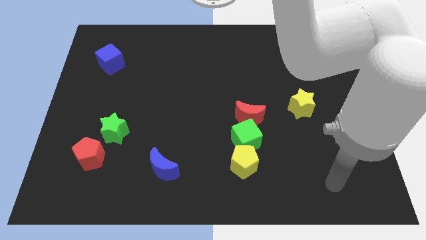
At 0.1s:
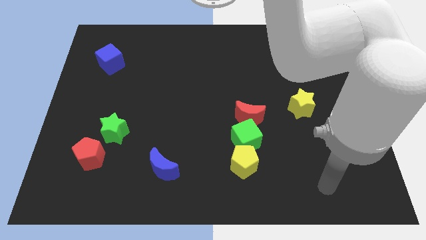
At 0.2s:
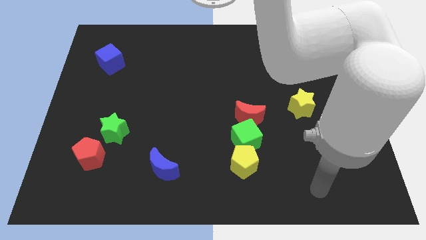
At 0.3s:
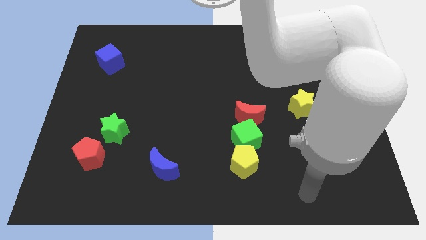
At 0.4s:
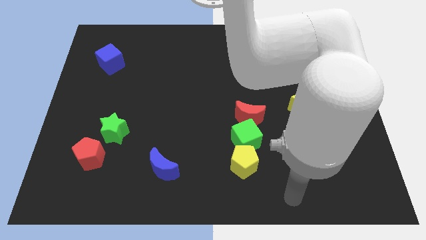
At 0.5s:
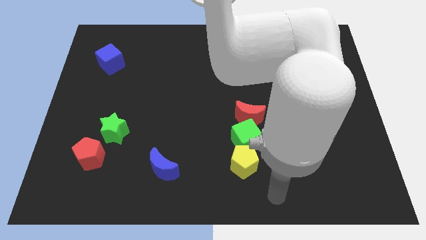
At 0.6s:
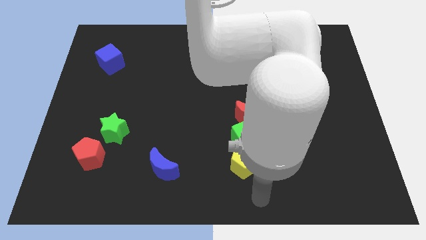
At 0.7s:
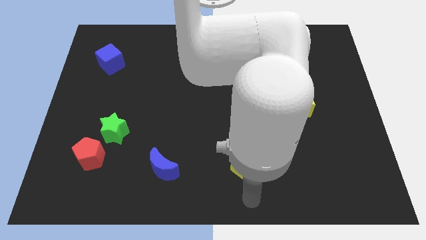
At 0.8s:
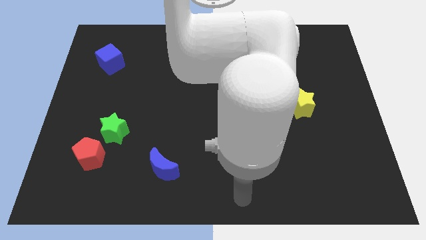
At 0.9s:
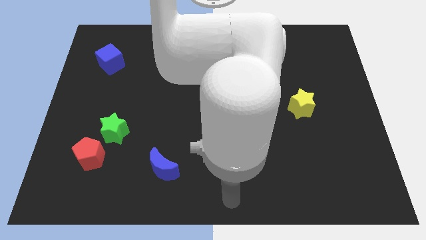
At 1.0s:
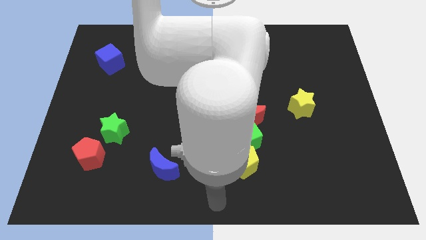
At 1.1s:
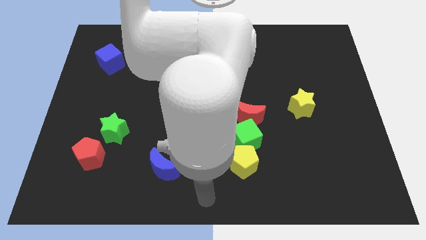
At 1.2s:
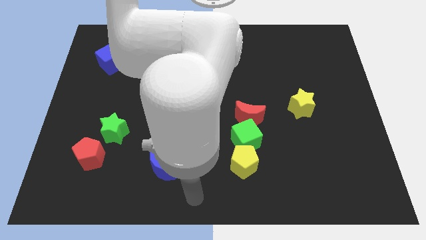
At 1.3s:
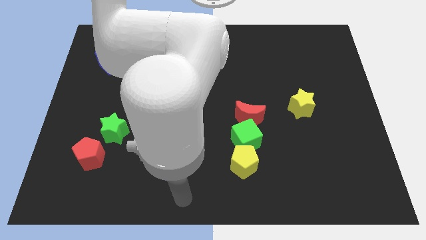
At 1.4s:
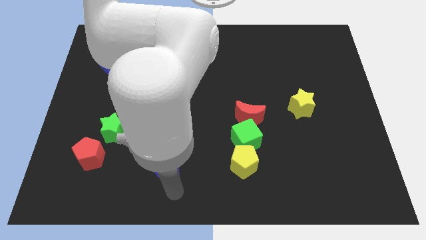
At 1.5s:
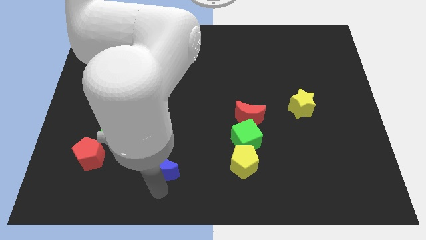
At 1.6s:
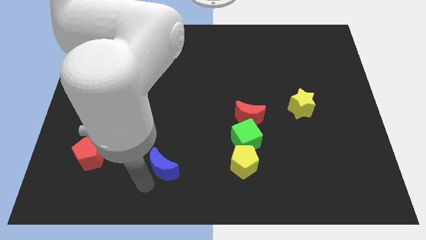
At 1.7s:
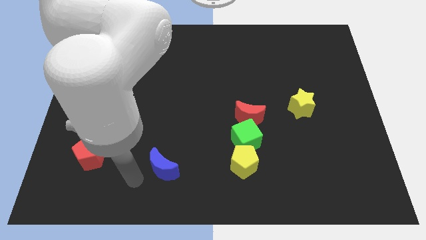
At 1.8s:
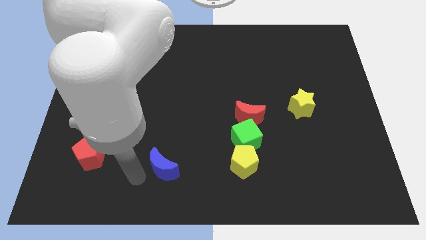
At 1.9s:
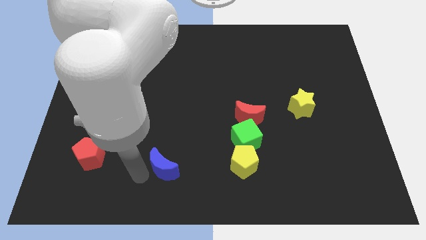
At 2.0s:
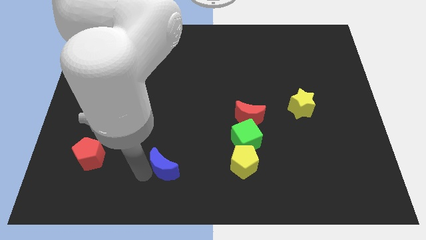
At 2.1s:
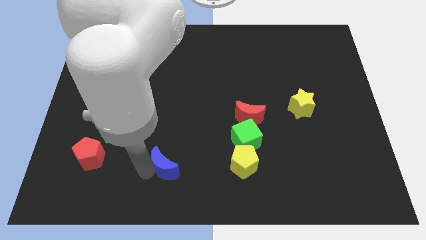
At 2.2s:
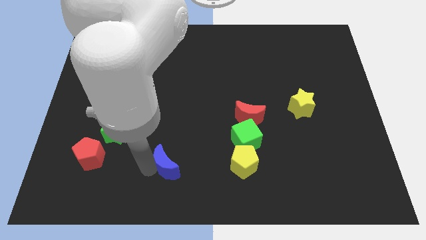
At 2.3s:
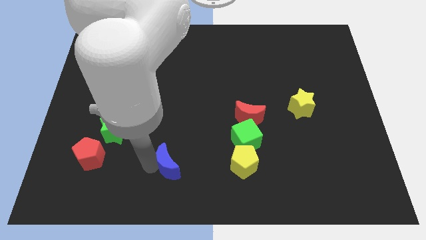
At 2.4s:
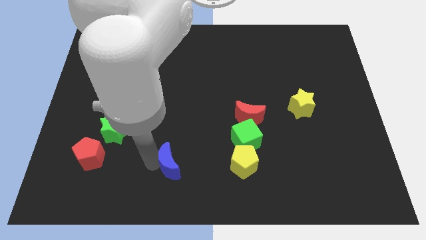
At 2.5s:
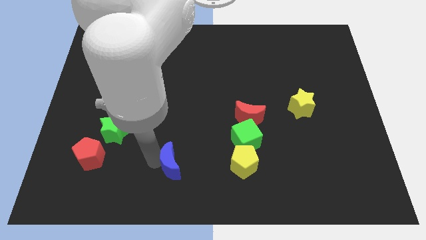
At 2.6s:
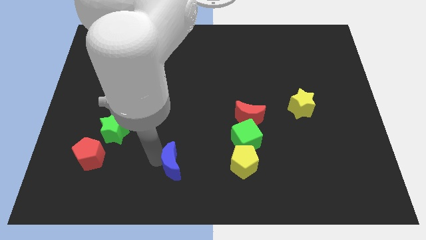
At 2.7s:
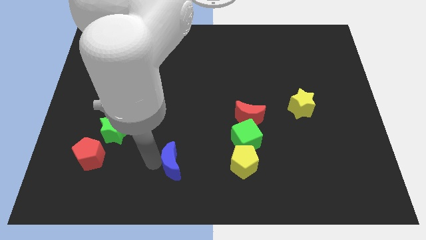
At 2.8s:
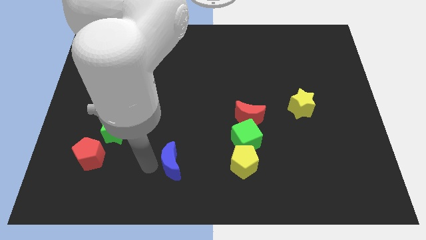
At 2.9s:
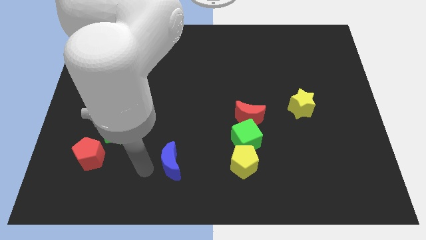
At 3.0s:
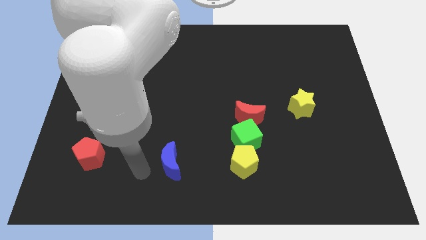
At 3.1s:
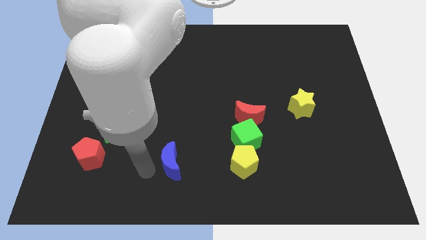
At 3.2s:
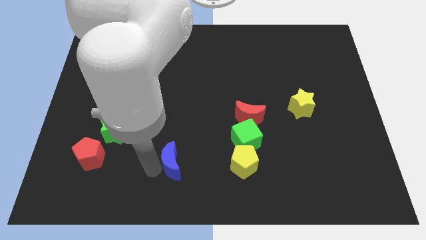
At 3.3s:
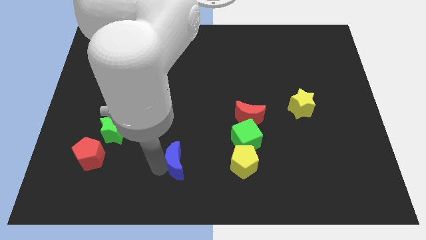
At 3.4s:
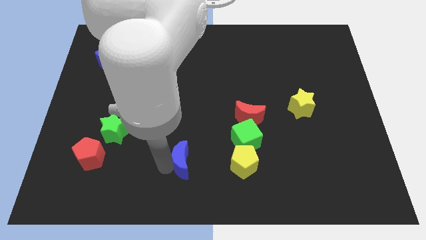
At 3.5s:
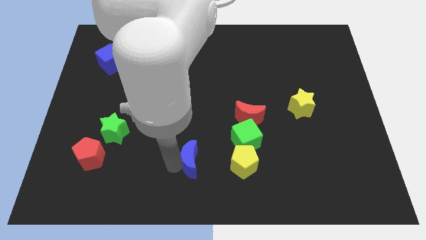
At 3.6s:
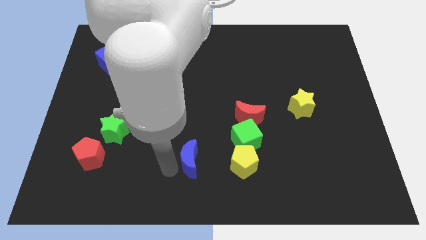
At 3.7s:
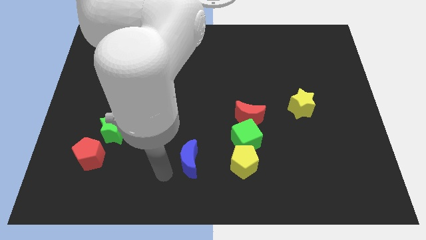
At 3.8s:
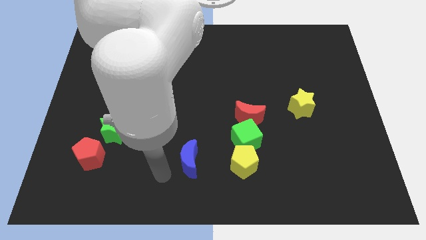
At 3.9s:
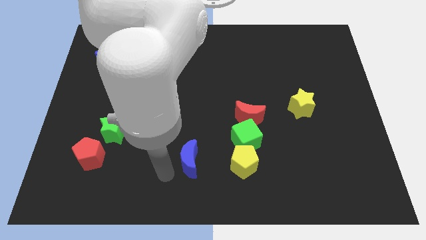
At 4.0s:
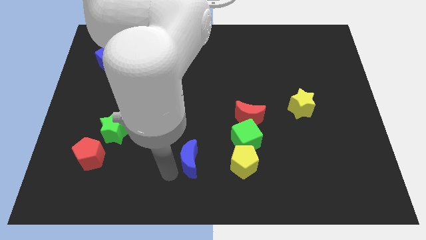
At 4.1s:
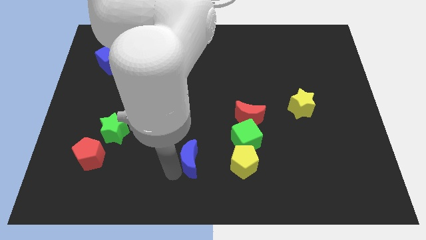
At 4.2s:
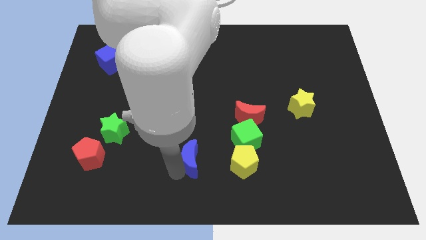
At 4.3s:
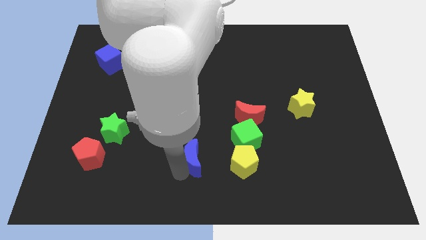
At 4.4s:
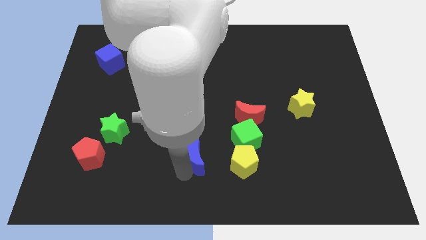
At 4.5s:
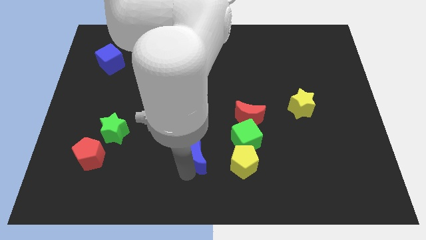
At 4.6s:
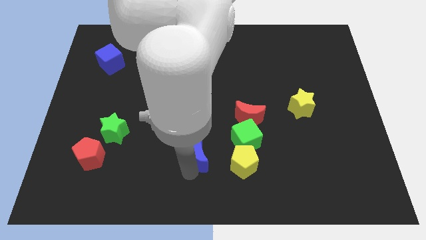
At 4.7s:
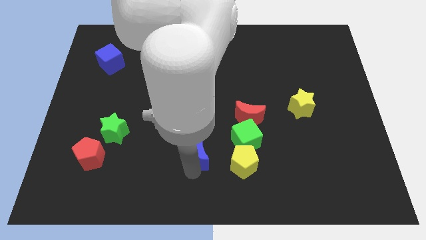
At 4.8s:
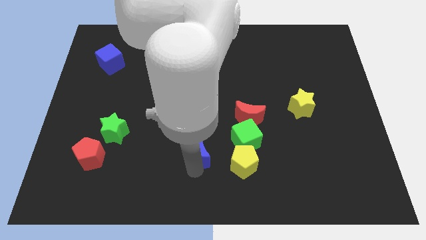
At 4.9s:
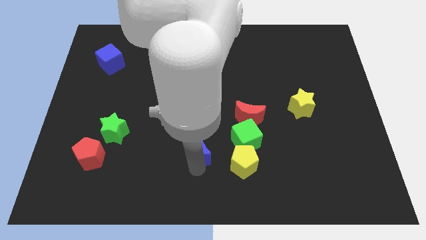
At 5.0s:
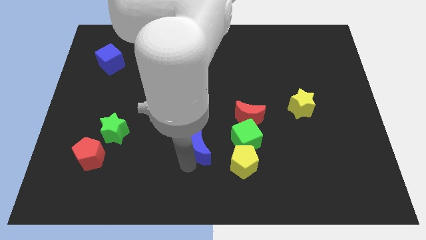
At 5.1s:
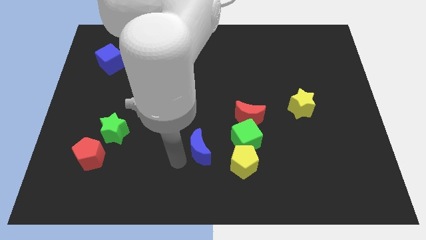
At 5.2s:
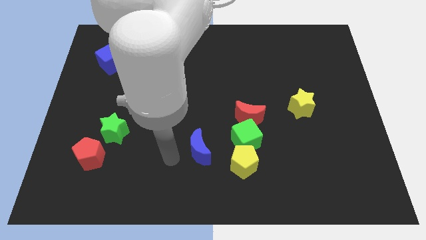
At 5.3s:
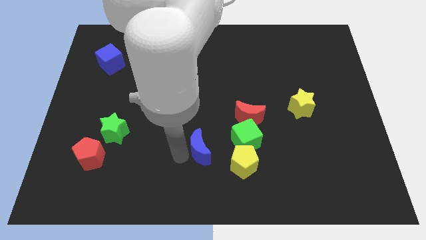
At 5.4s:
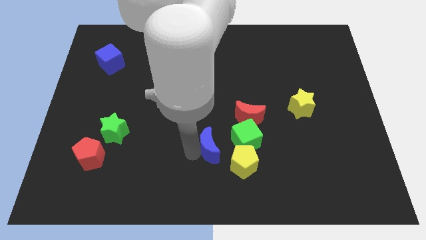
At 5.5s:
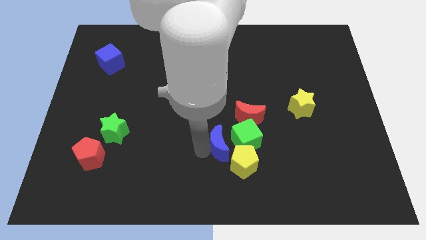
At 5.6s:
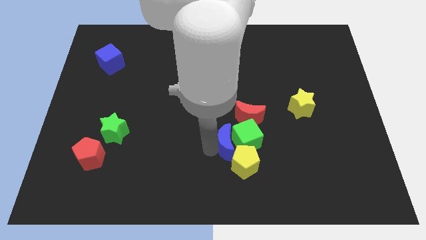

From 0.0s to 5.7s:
slide the blue moon close to the green cube

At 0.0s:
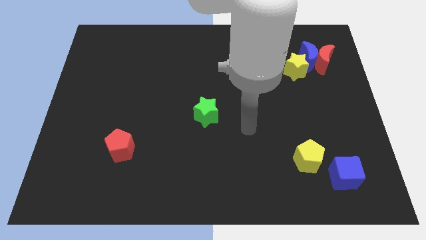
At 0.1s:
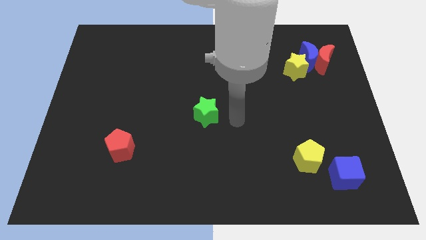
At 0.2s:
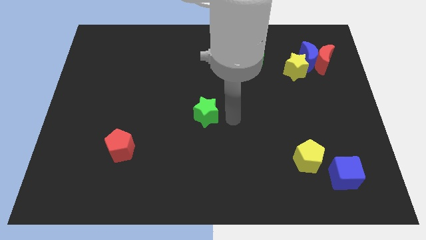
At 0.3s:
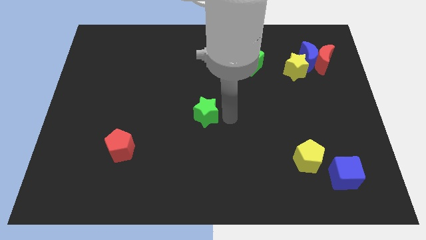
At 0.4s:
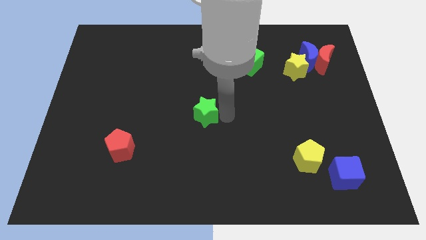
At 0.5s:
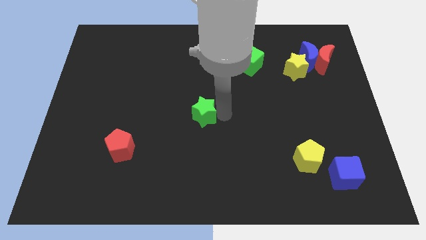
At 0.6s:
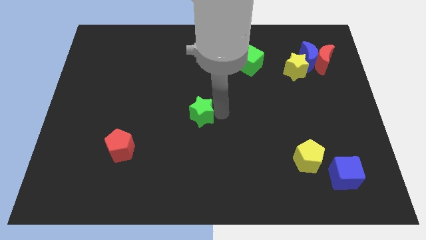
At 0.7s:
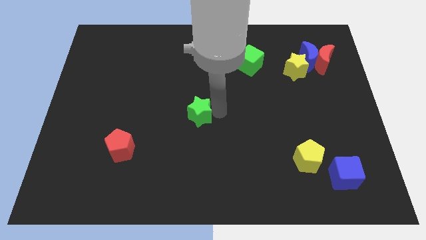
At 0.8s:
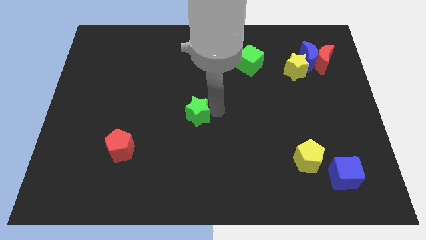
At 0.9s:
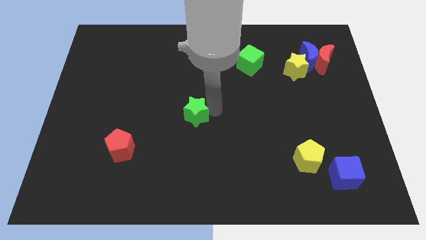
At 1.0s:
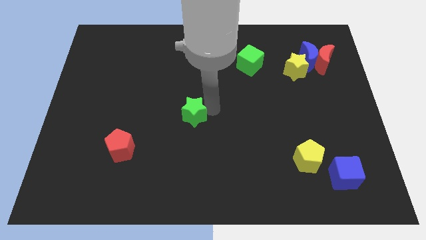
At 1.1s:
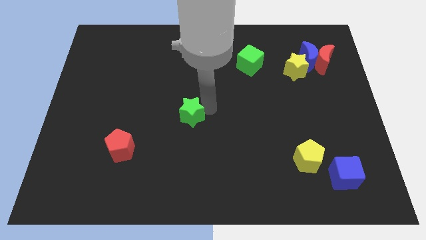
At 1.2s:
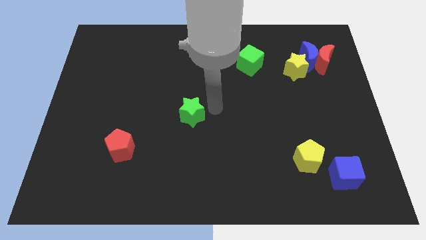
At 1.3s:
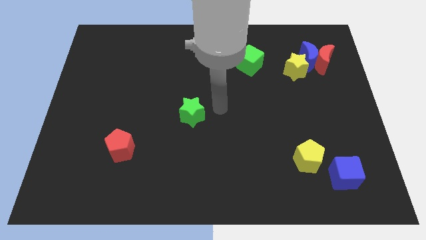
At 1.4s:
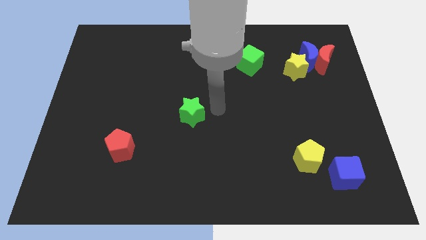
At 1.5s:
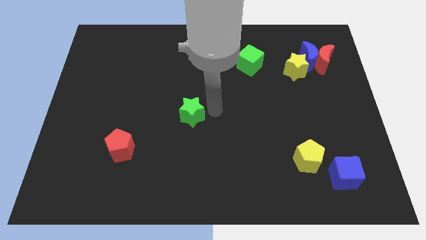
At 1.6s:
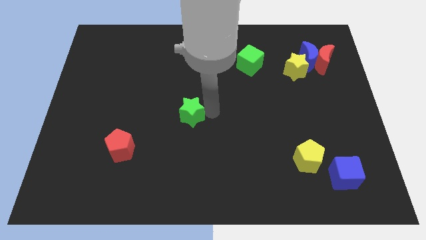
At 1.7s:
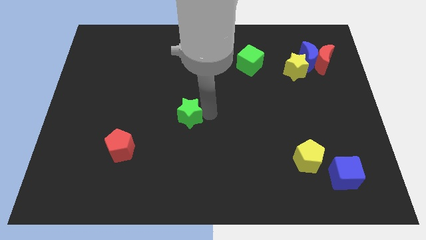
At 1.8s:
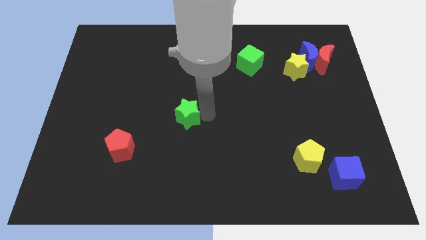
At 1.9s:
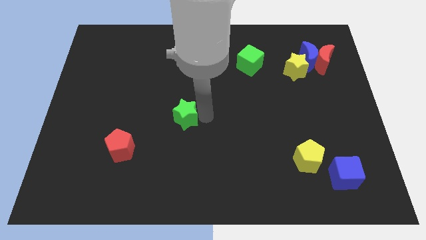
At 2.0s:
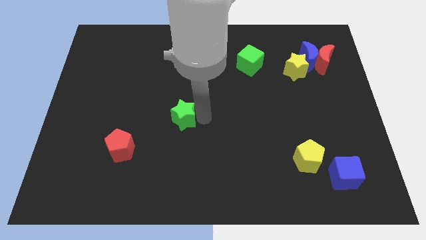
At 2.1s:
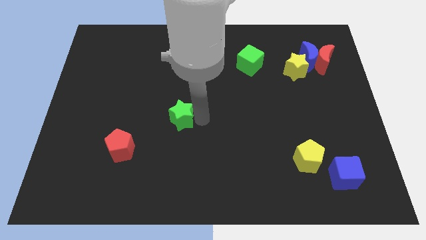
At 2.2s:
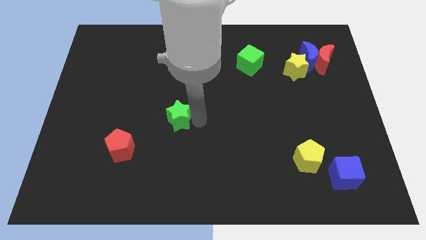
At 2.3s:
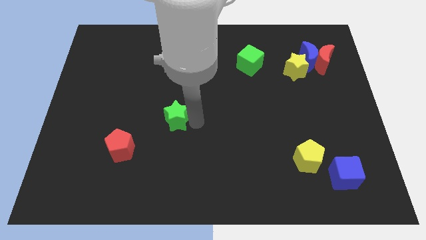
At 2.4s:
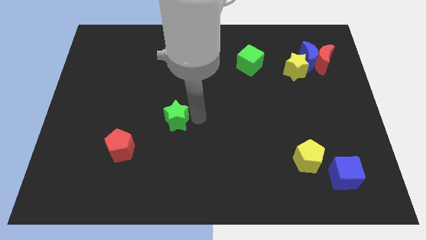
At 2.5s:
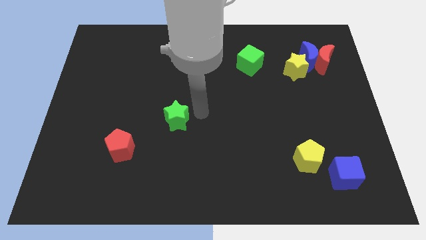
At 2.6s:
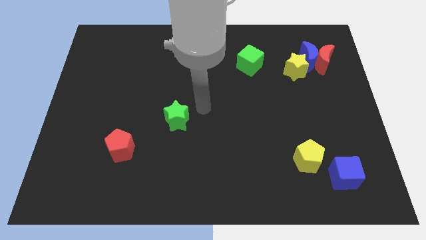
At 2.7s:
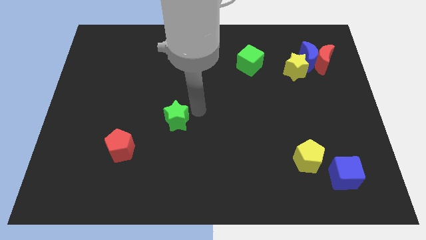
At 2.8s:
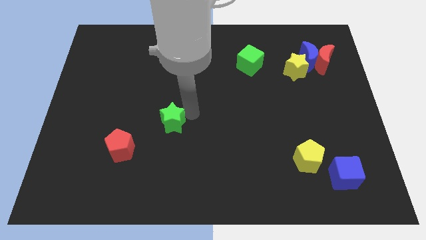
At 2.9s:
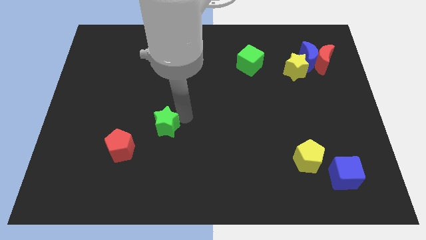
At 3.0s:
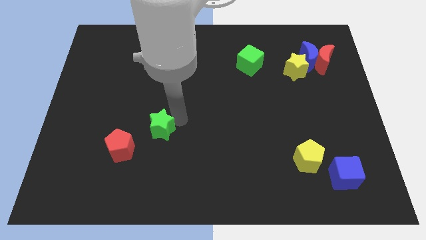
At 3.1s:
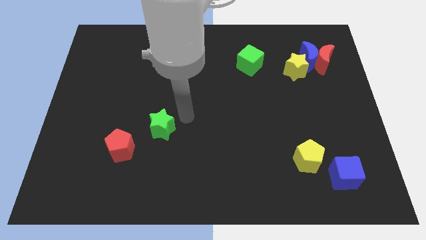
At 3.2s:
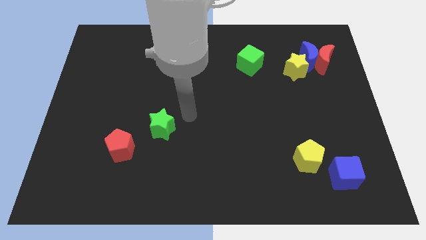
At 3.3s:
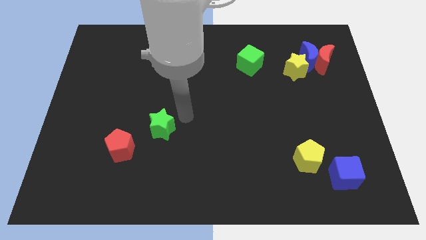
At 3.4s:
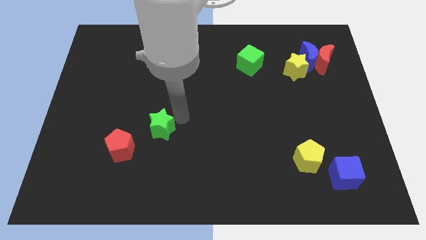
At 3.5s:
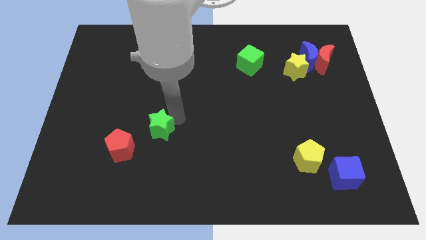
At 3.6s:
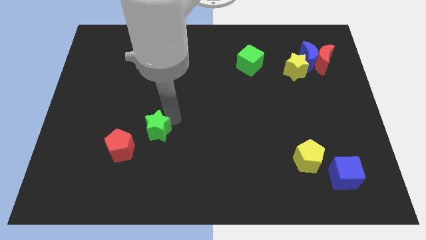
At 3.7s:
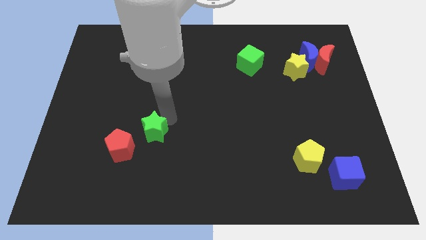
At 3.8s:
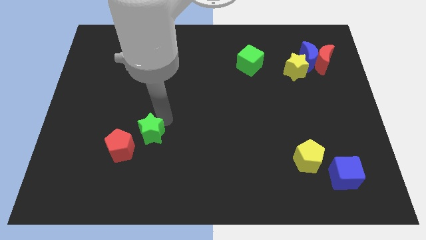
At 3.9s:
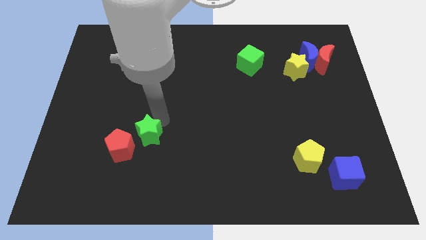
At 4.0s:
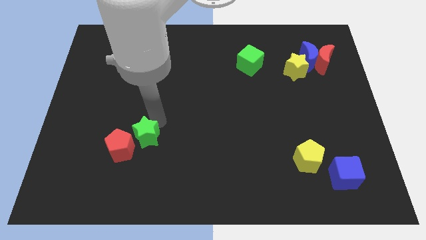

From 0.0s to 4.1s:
move the green star to the red pentagon
